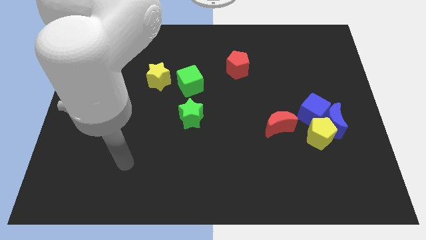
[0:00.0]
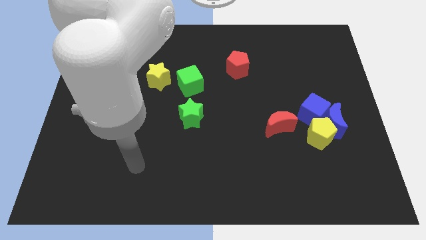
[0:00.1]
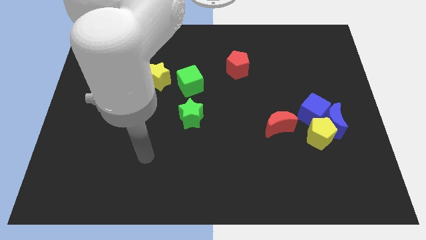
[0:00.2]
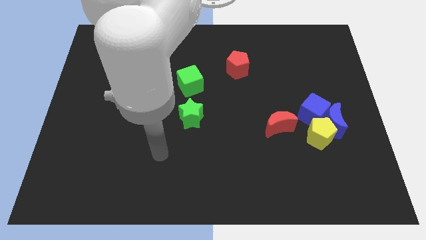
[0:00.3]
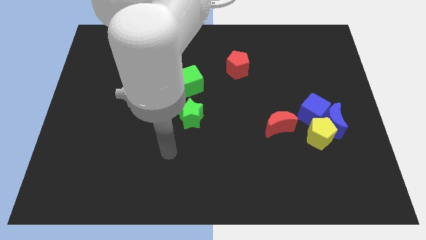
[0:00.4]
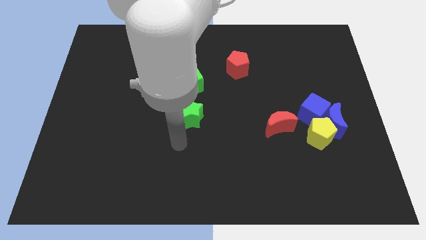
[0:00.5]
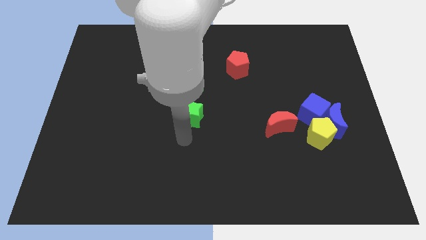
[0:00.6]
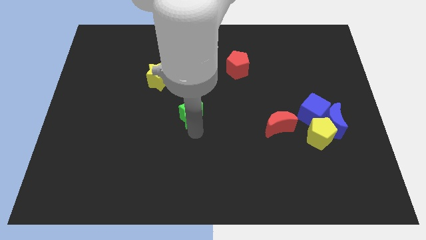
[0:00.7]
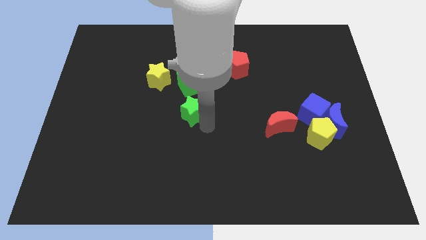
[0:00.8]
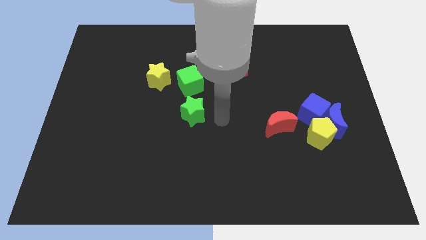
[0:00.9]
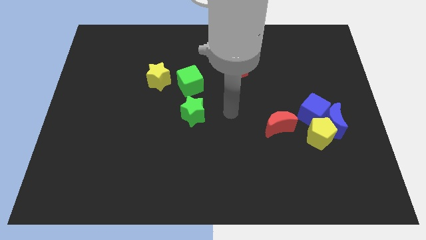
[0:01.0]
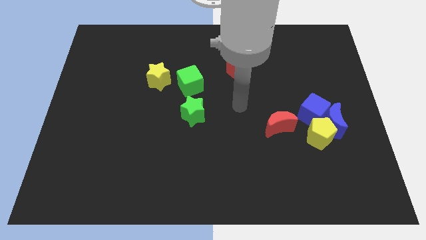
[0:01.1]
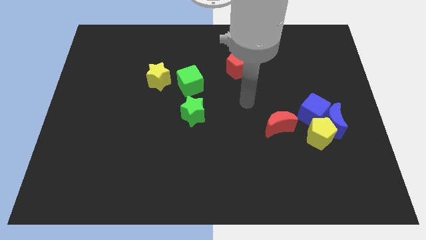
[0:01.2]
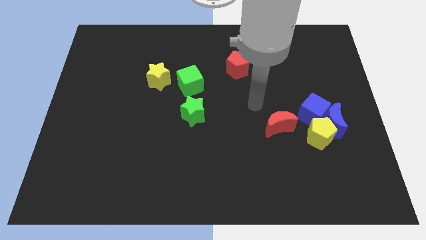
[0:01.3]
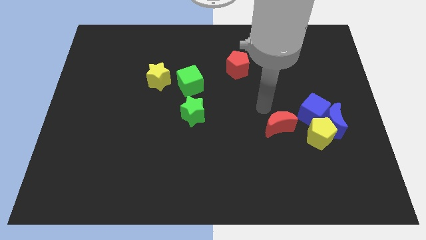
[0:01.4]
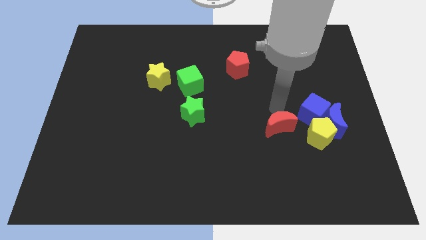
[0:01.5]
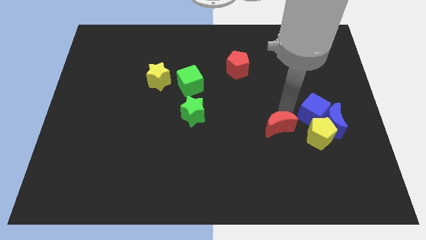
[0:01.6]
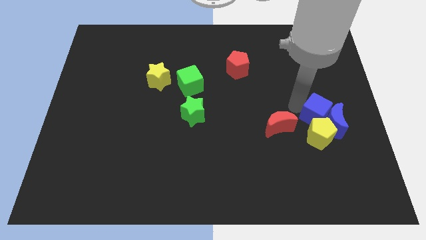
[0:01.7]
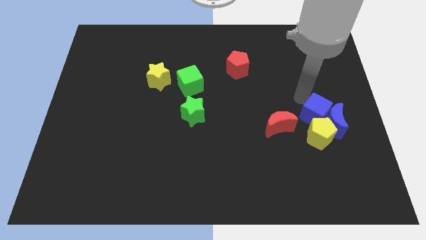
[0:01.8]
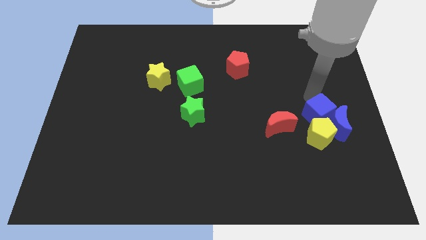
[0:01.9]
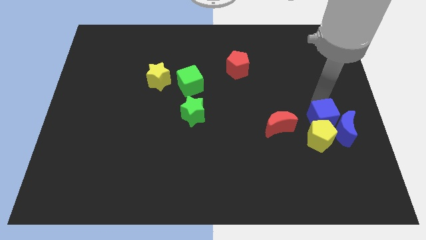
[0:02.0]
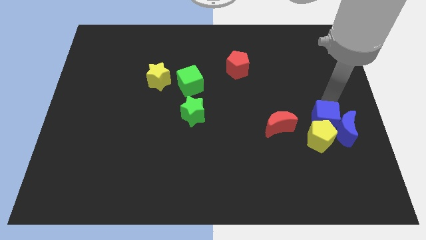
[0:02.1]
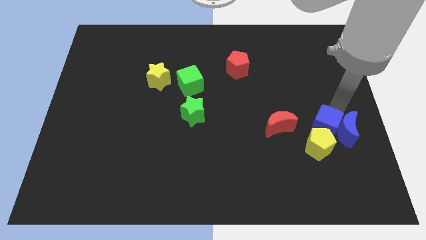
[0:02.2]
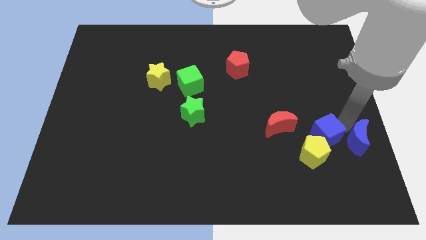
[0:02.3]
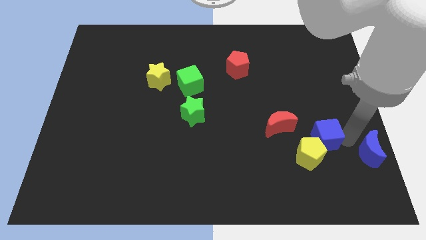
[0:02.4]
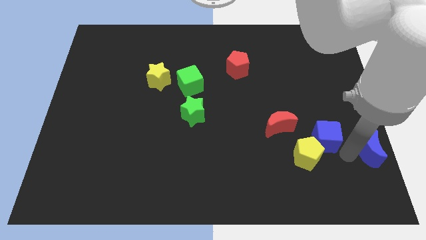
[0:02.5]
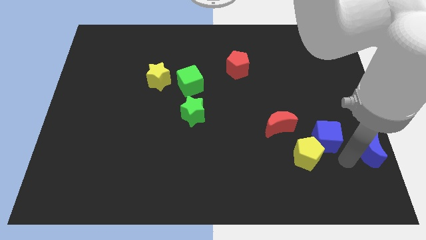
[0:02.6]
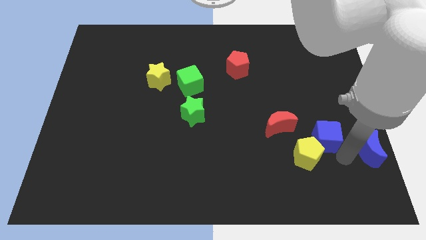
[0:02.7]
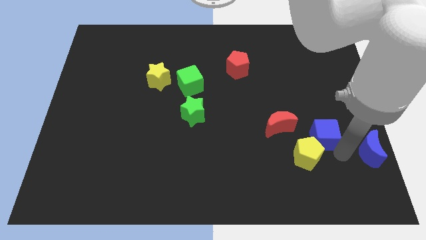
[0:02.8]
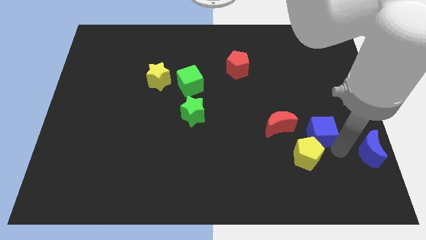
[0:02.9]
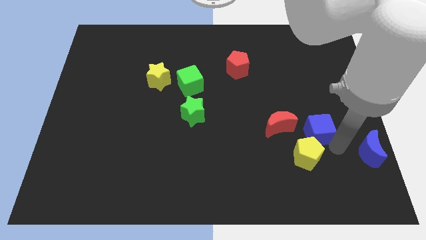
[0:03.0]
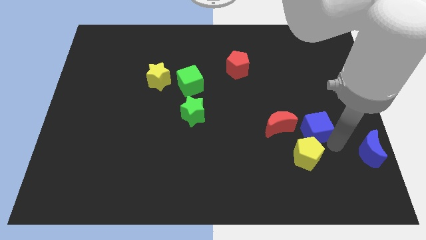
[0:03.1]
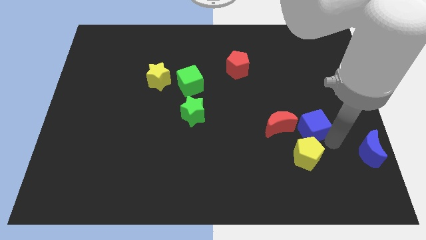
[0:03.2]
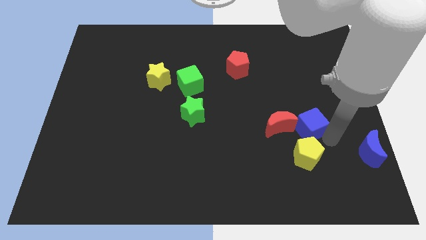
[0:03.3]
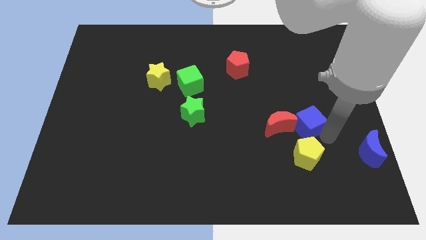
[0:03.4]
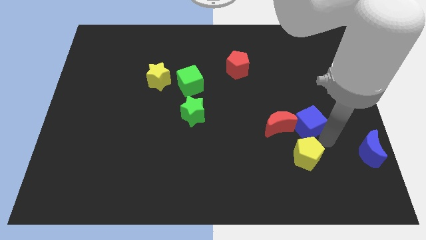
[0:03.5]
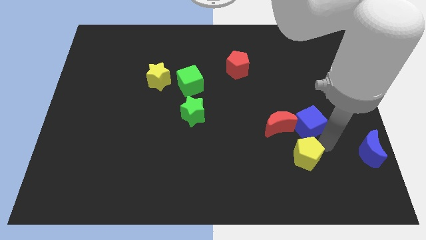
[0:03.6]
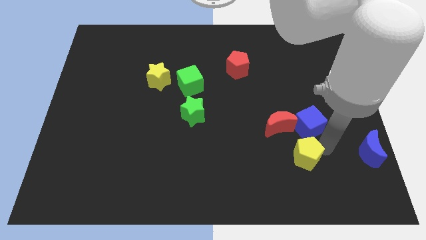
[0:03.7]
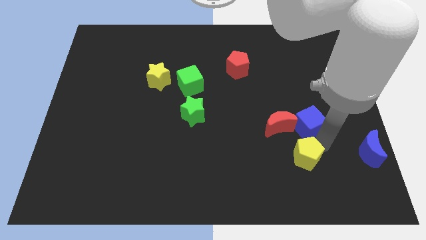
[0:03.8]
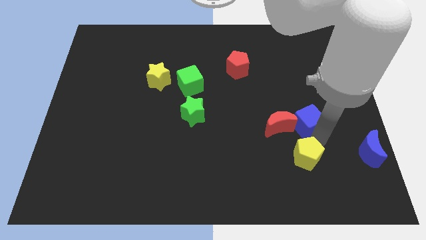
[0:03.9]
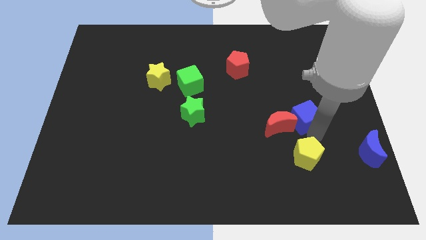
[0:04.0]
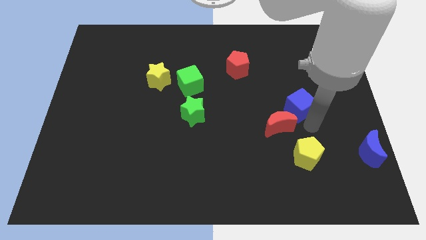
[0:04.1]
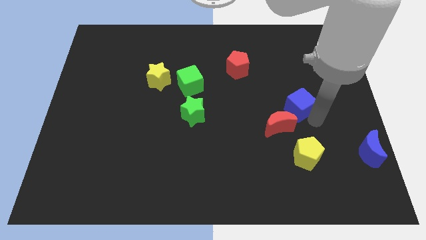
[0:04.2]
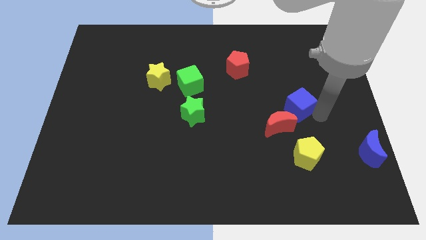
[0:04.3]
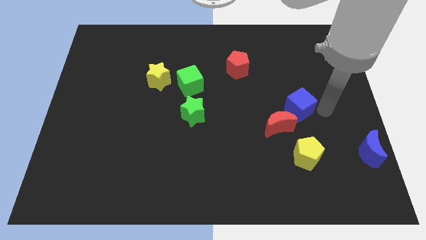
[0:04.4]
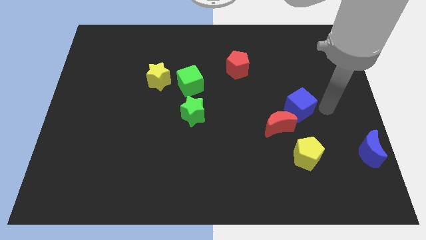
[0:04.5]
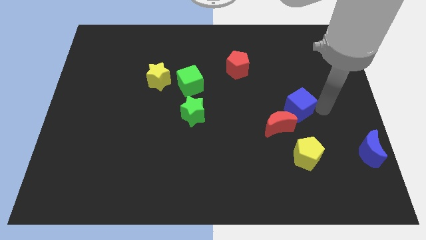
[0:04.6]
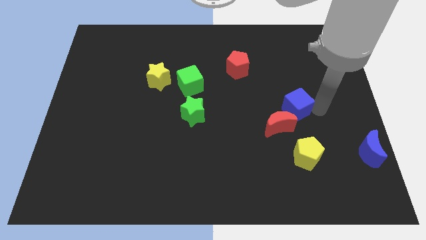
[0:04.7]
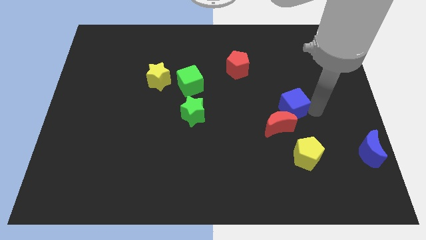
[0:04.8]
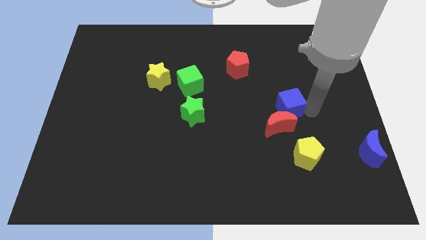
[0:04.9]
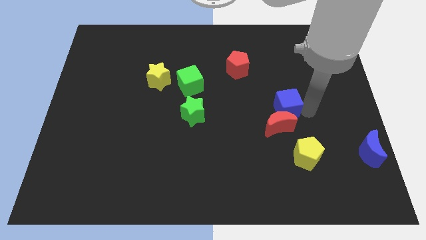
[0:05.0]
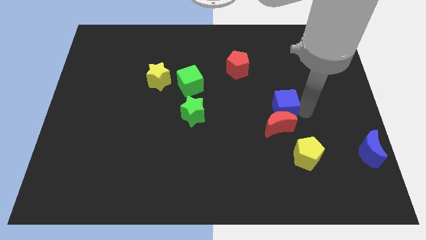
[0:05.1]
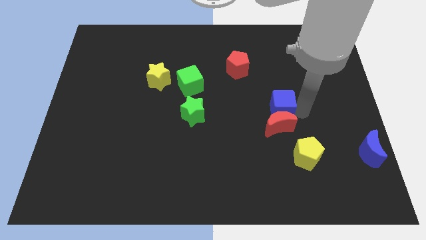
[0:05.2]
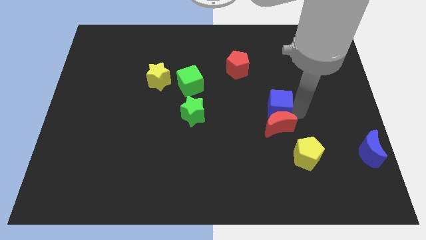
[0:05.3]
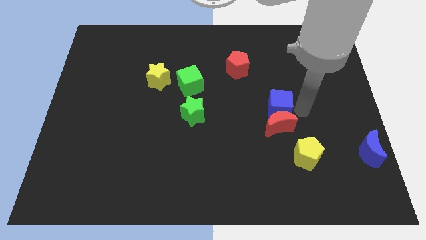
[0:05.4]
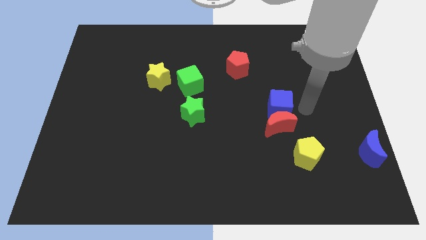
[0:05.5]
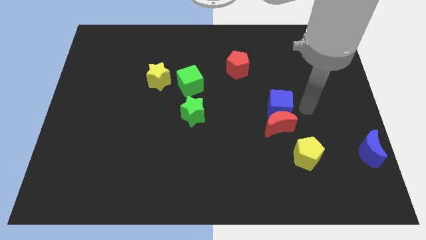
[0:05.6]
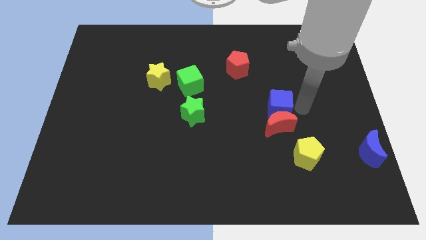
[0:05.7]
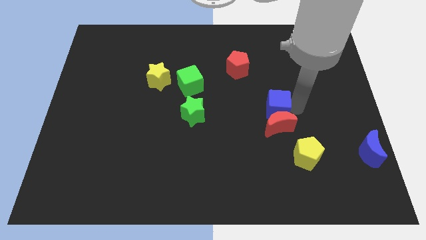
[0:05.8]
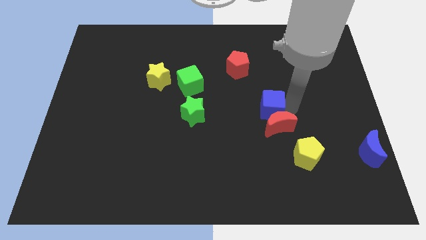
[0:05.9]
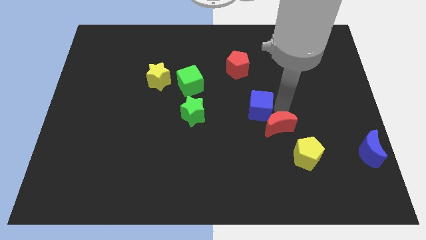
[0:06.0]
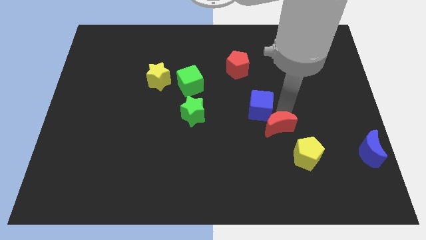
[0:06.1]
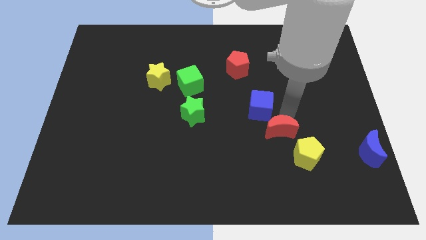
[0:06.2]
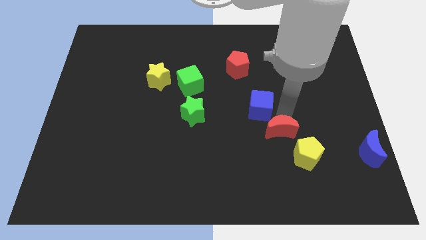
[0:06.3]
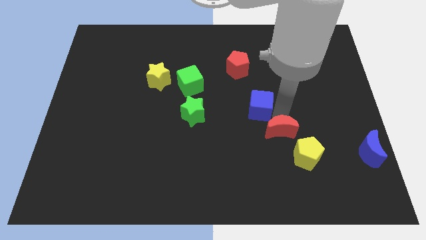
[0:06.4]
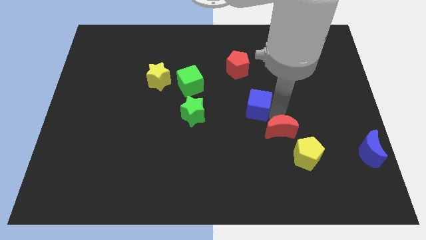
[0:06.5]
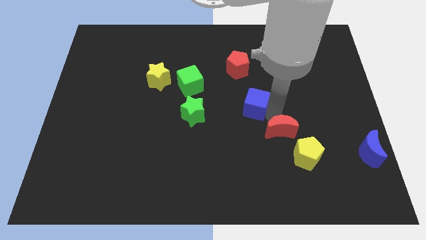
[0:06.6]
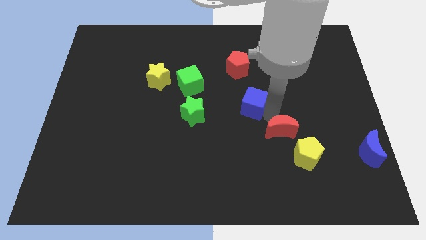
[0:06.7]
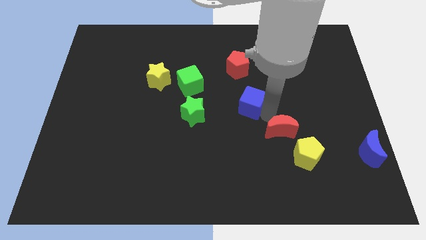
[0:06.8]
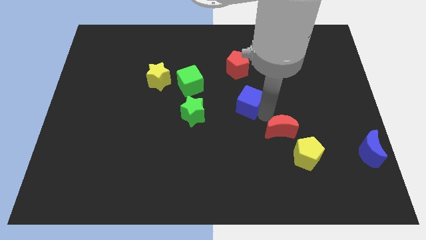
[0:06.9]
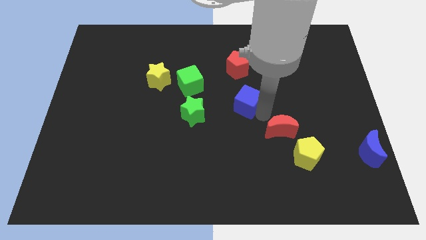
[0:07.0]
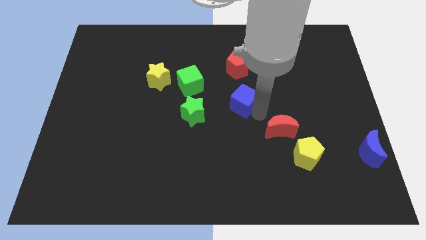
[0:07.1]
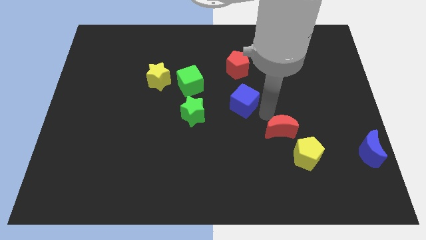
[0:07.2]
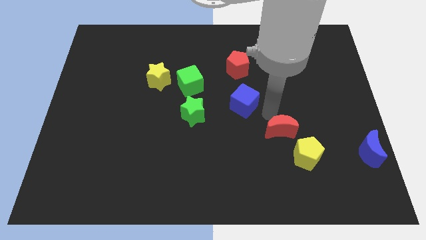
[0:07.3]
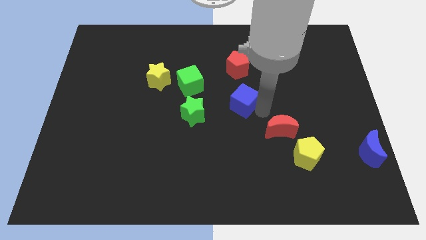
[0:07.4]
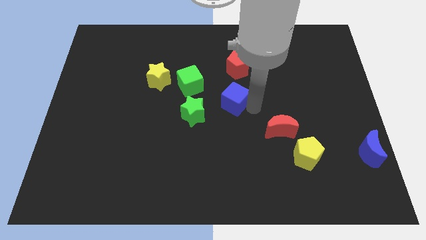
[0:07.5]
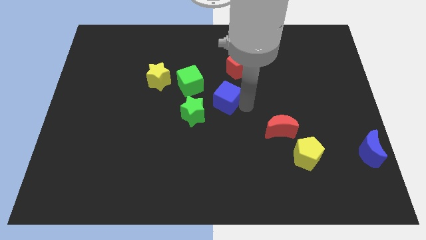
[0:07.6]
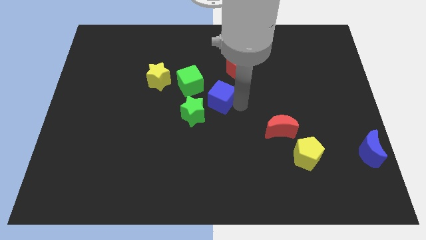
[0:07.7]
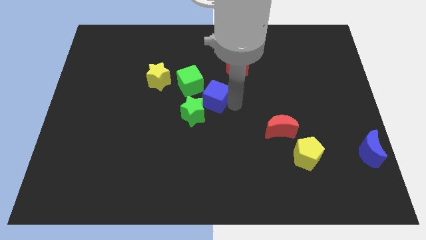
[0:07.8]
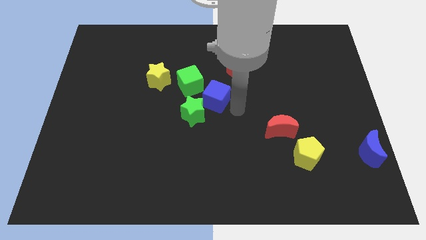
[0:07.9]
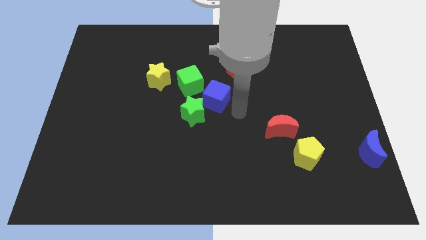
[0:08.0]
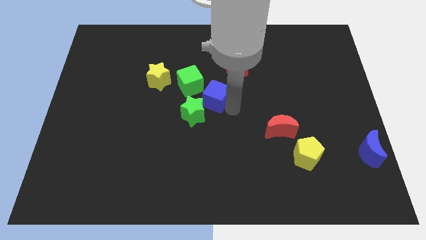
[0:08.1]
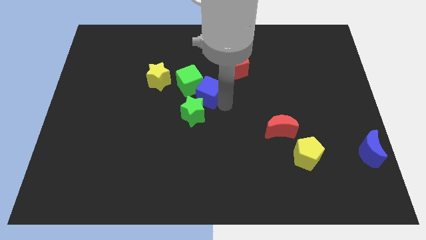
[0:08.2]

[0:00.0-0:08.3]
slide the blue cube next to the green cube
